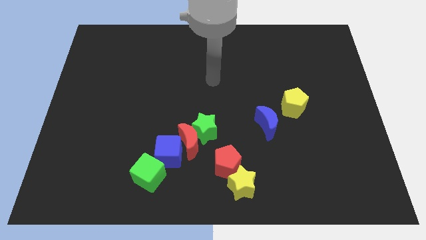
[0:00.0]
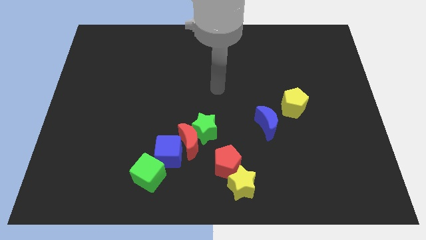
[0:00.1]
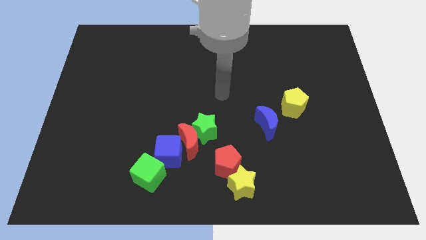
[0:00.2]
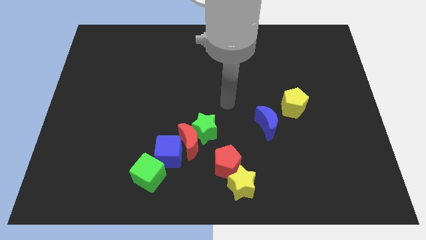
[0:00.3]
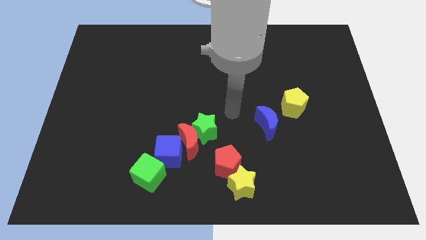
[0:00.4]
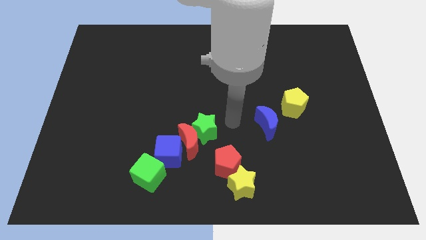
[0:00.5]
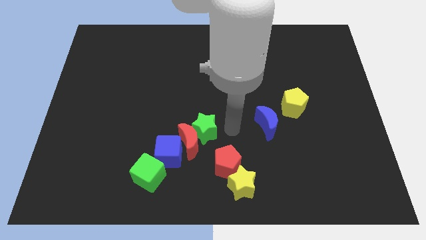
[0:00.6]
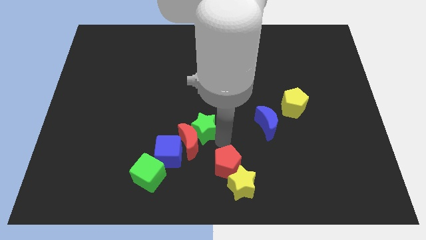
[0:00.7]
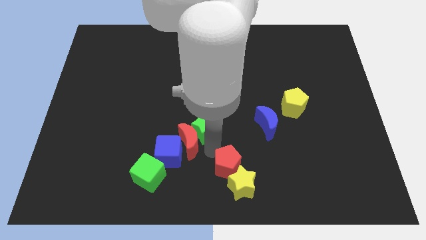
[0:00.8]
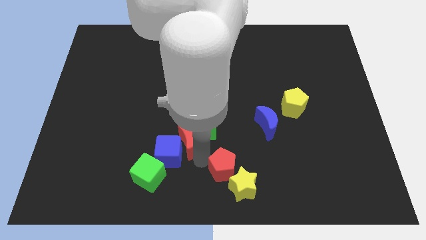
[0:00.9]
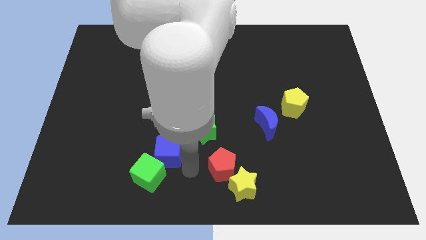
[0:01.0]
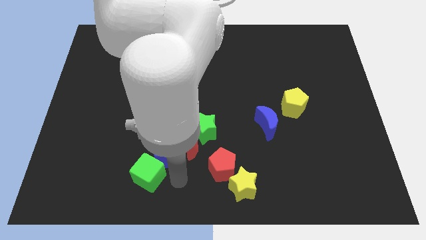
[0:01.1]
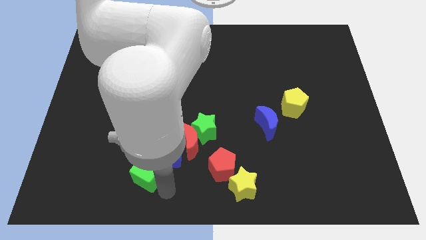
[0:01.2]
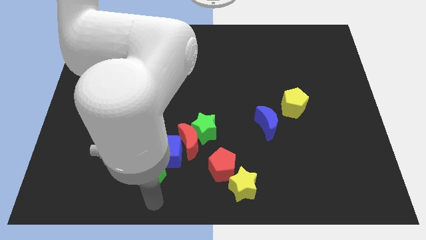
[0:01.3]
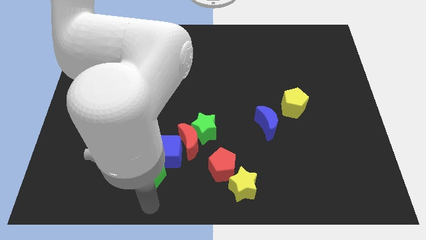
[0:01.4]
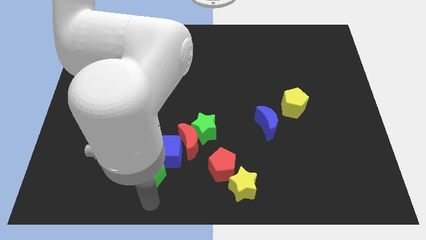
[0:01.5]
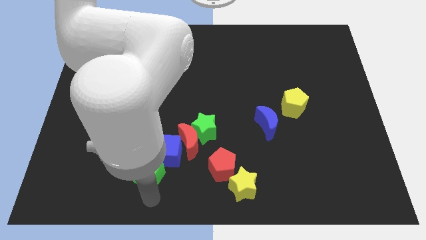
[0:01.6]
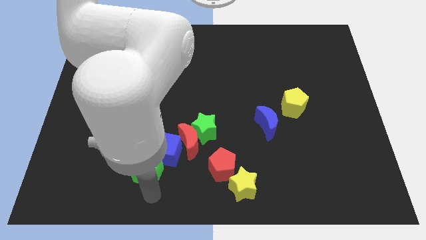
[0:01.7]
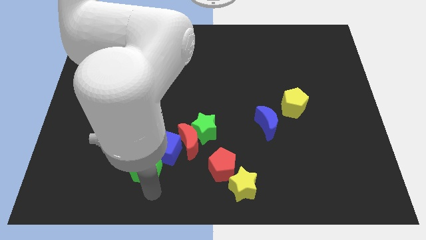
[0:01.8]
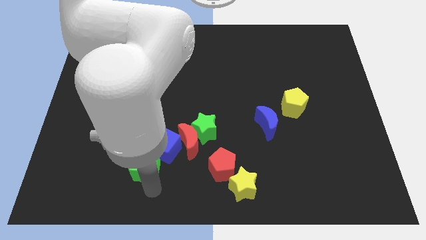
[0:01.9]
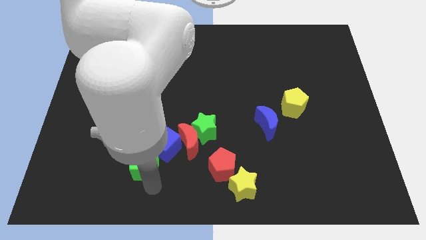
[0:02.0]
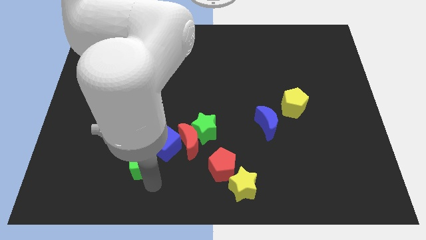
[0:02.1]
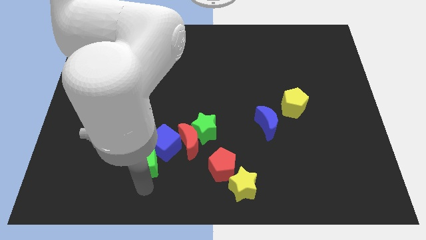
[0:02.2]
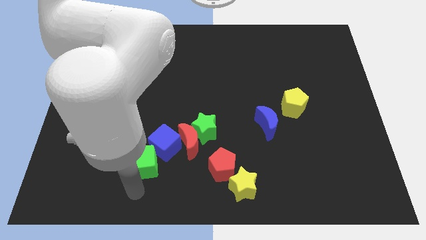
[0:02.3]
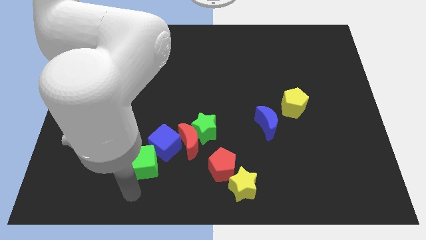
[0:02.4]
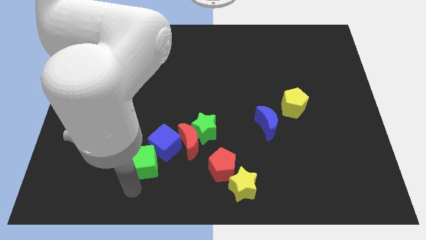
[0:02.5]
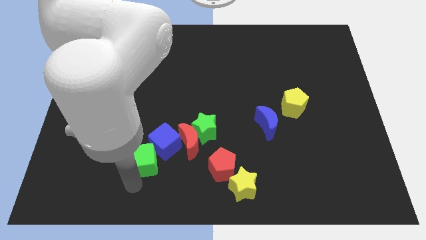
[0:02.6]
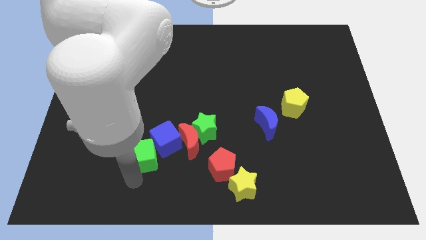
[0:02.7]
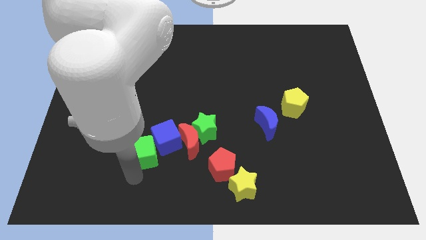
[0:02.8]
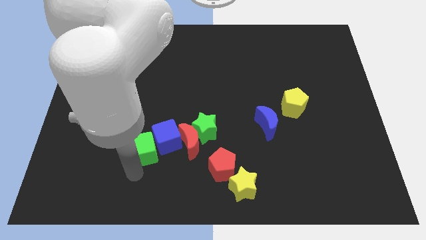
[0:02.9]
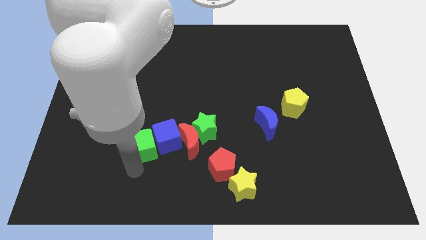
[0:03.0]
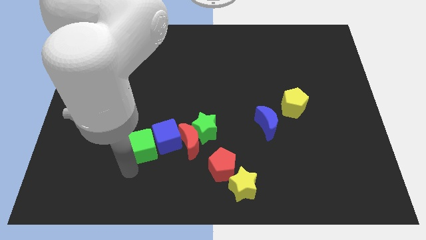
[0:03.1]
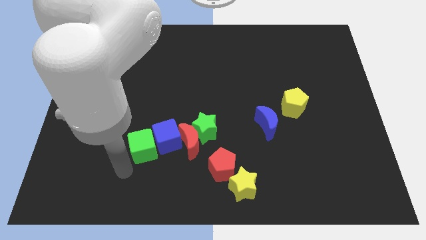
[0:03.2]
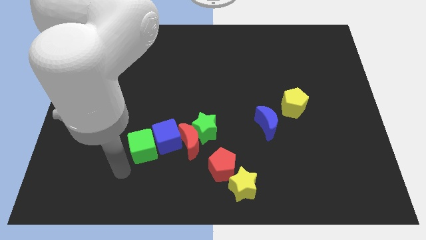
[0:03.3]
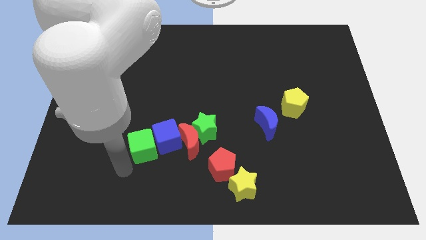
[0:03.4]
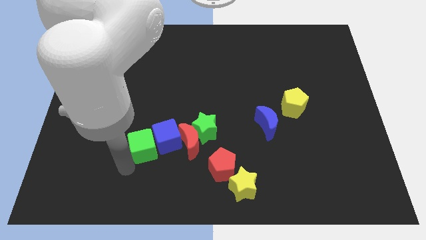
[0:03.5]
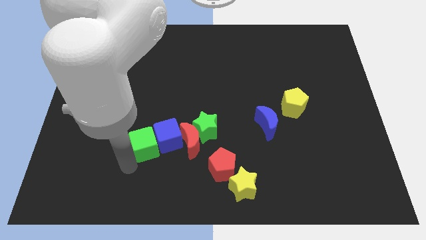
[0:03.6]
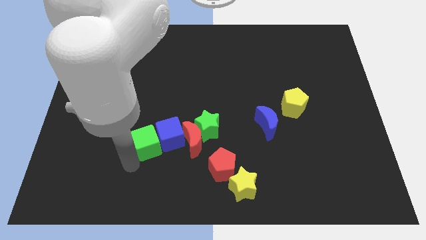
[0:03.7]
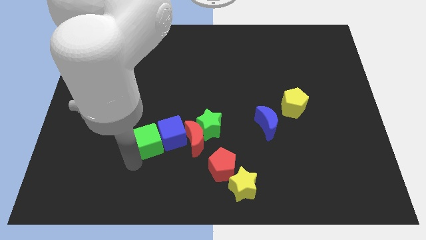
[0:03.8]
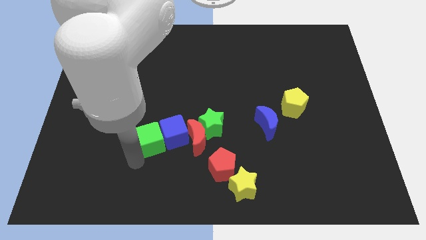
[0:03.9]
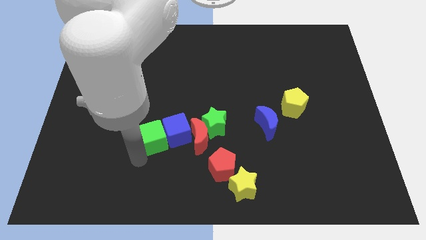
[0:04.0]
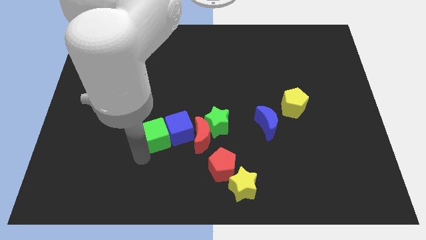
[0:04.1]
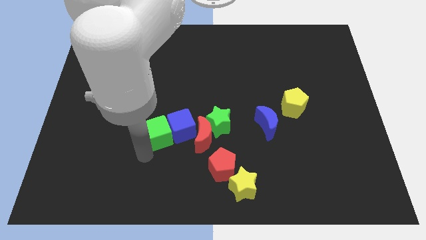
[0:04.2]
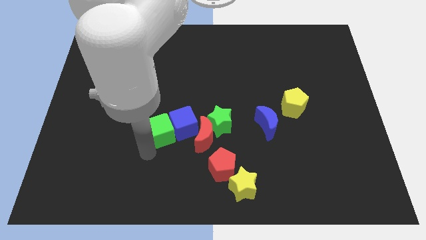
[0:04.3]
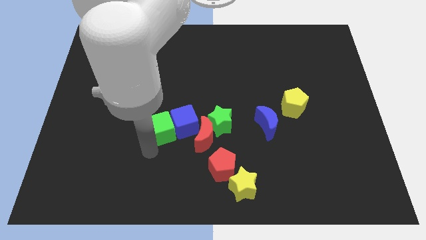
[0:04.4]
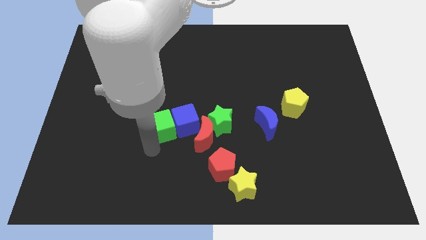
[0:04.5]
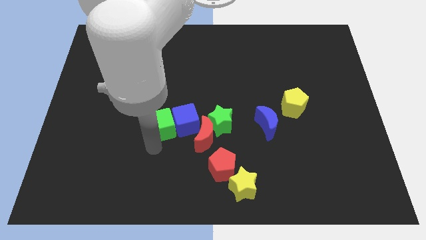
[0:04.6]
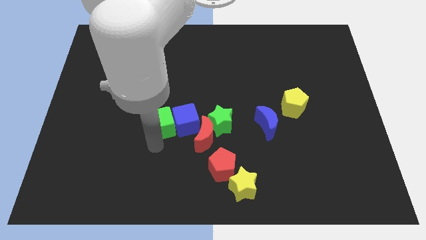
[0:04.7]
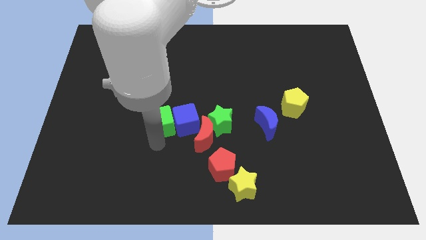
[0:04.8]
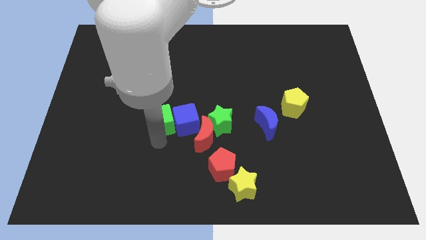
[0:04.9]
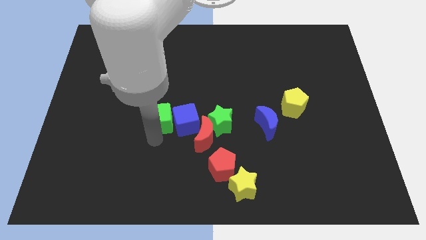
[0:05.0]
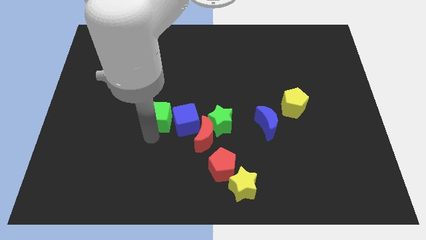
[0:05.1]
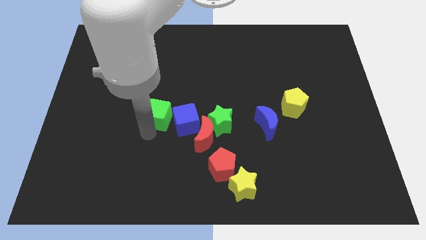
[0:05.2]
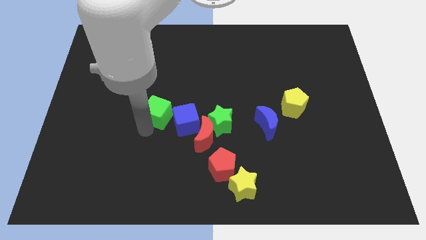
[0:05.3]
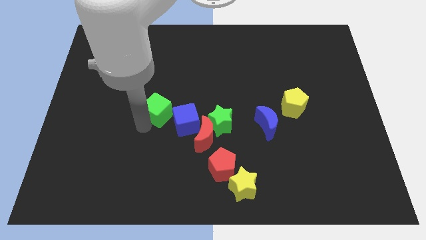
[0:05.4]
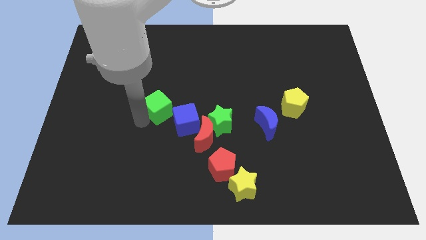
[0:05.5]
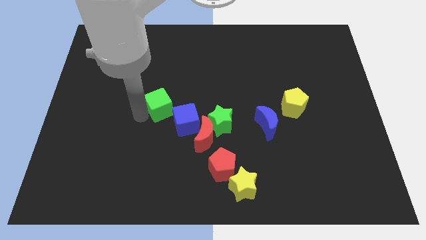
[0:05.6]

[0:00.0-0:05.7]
put the green cube to the middle of the board

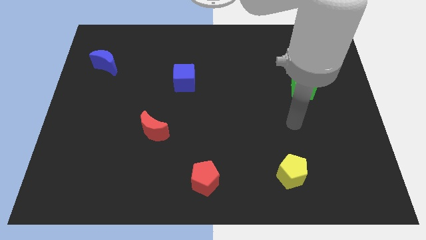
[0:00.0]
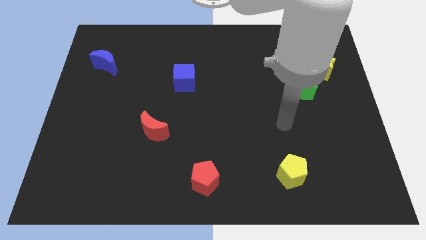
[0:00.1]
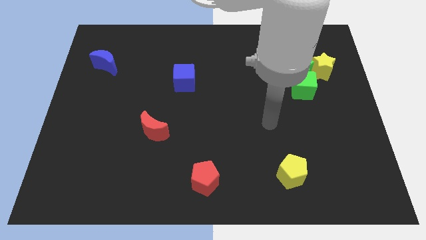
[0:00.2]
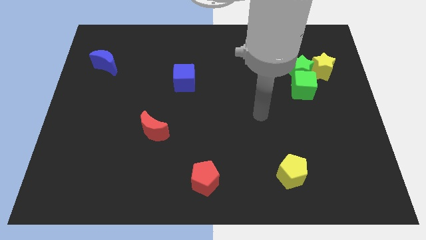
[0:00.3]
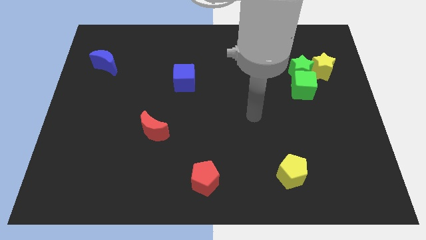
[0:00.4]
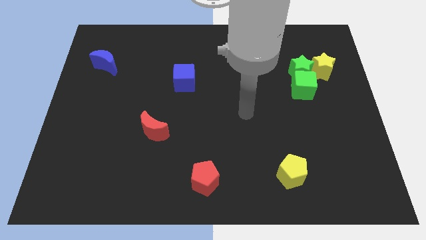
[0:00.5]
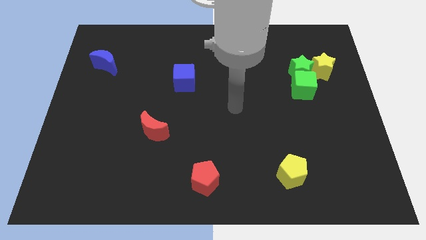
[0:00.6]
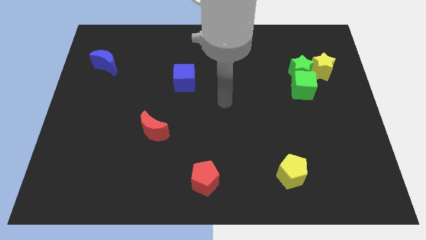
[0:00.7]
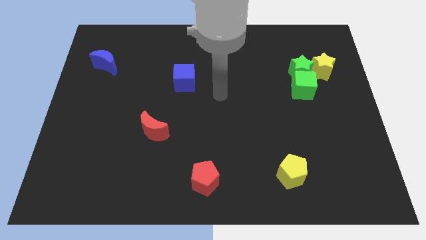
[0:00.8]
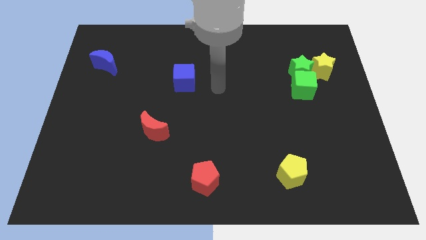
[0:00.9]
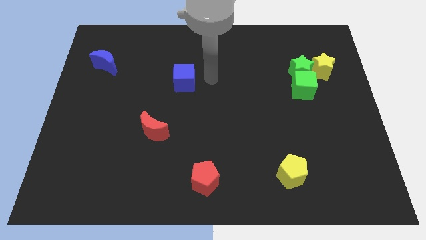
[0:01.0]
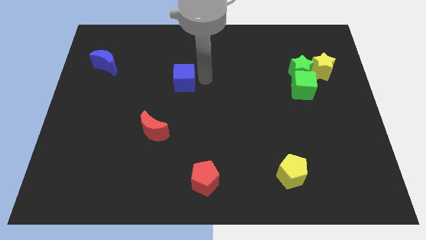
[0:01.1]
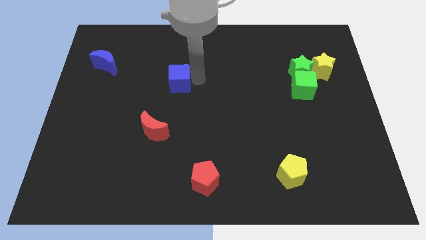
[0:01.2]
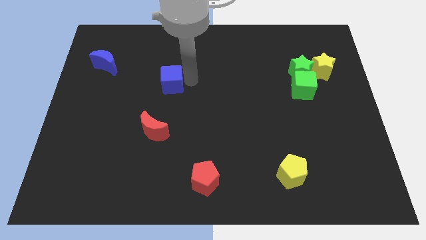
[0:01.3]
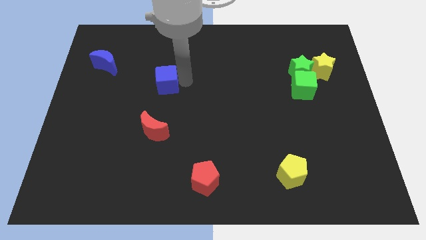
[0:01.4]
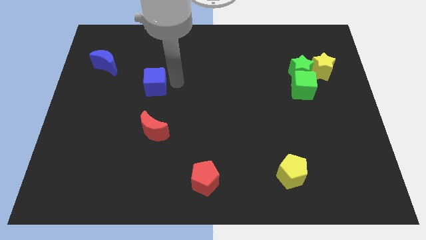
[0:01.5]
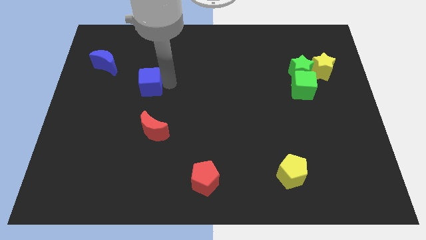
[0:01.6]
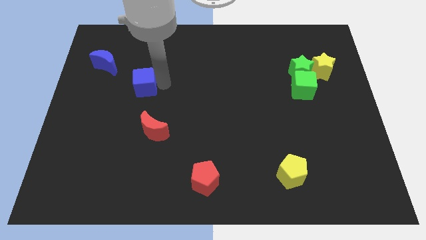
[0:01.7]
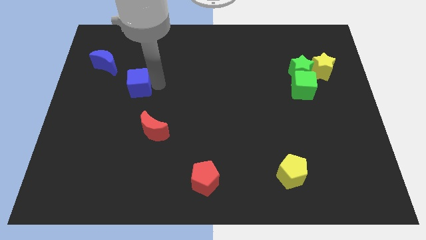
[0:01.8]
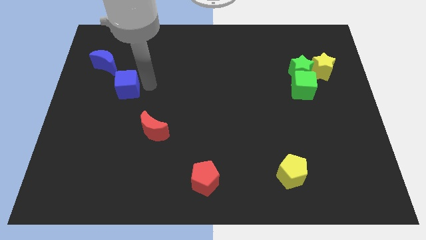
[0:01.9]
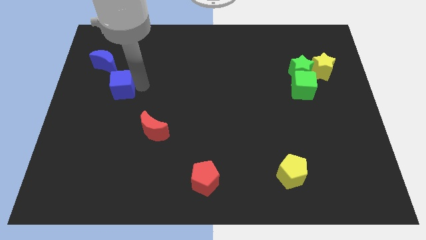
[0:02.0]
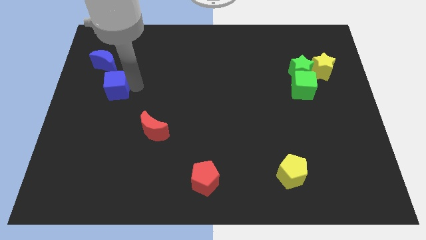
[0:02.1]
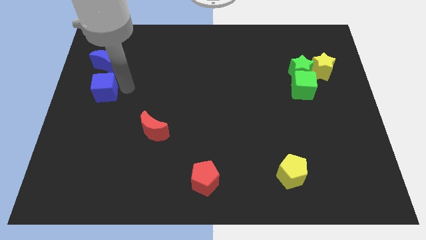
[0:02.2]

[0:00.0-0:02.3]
push the blue cube to the center left
